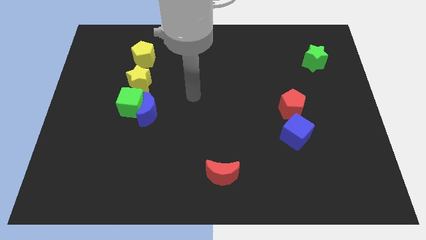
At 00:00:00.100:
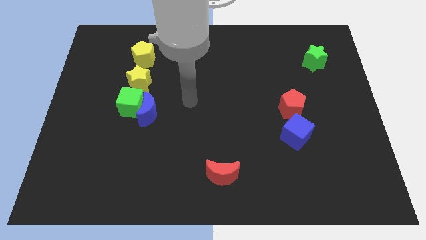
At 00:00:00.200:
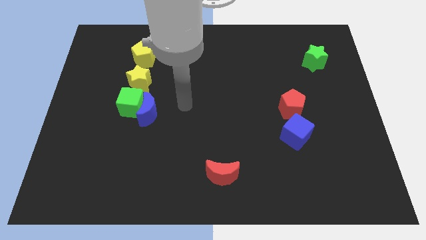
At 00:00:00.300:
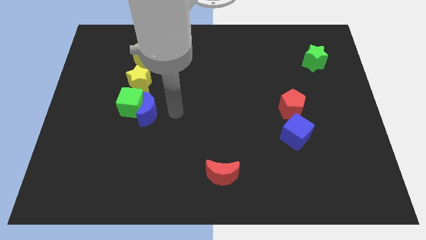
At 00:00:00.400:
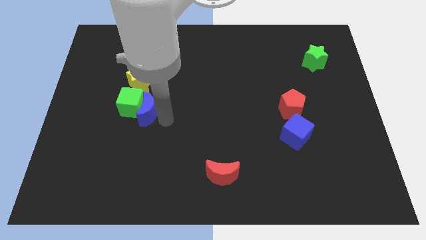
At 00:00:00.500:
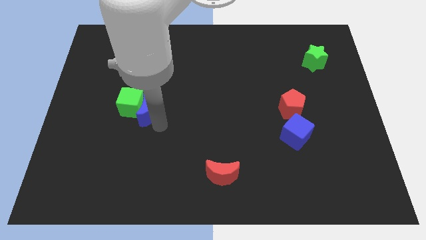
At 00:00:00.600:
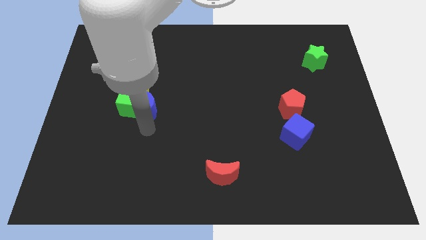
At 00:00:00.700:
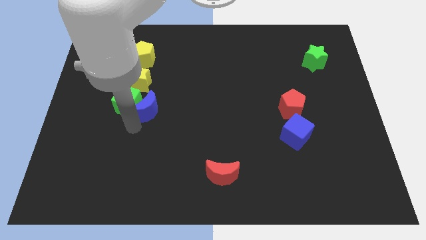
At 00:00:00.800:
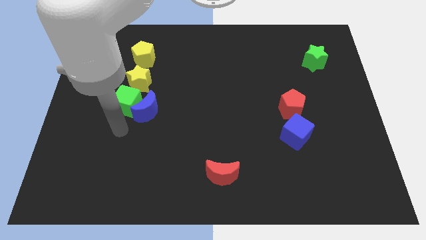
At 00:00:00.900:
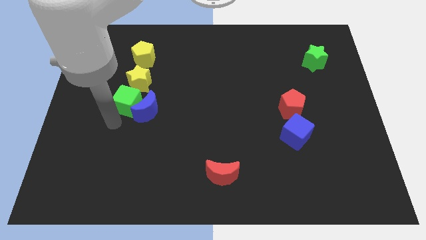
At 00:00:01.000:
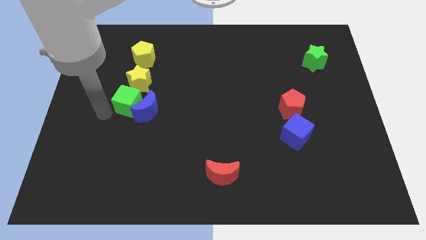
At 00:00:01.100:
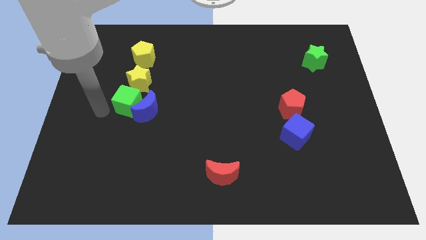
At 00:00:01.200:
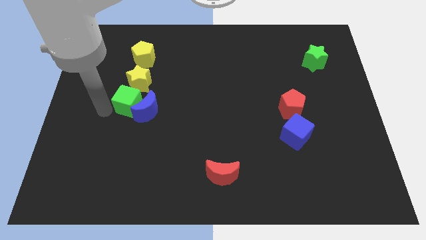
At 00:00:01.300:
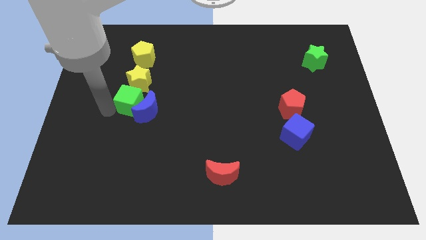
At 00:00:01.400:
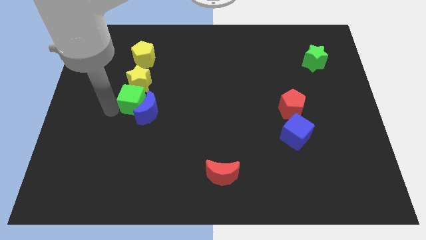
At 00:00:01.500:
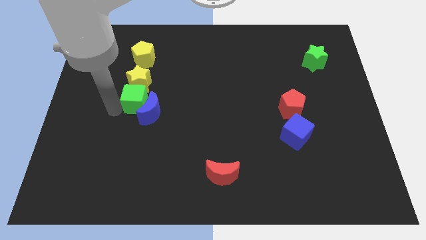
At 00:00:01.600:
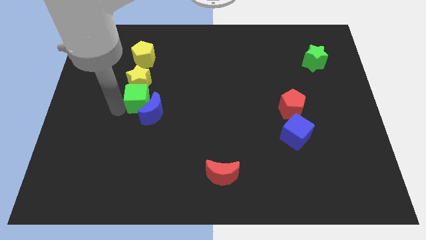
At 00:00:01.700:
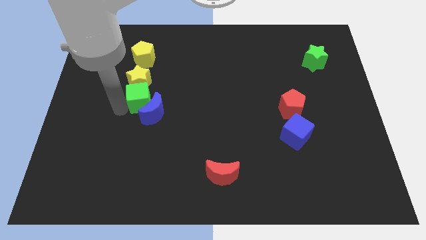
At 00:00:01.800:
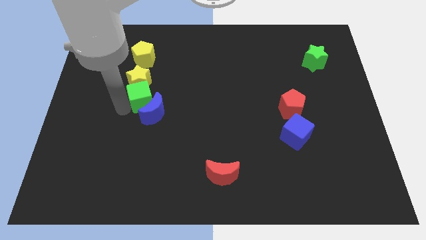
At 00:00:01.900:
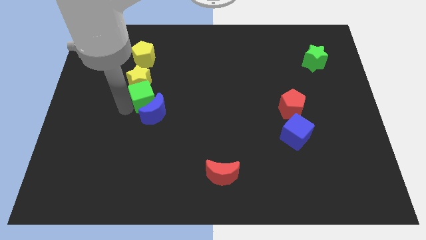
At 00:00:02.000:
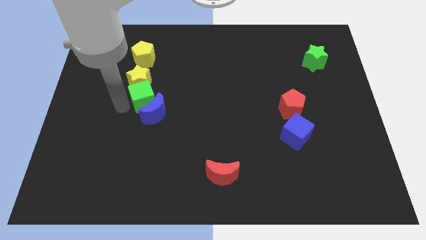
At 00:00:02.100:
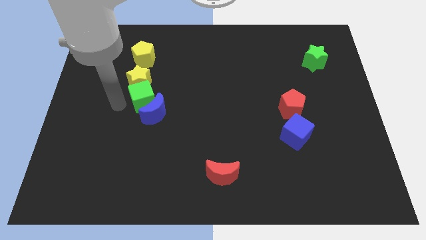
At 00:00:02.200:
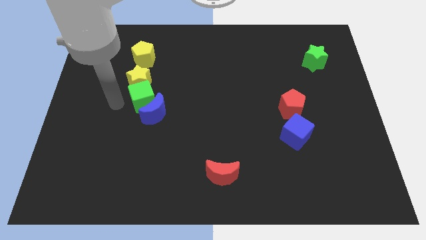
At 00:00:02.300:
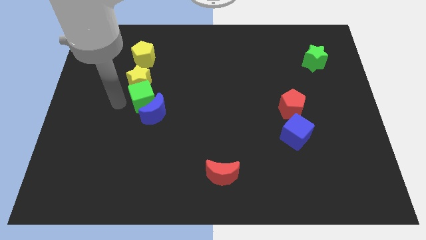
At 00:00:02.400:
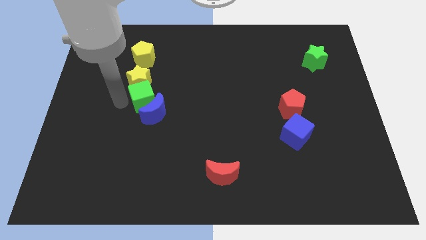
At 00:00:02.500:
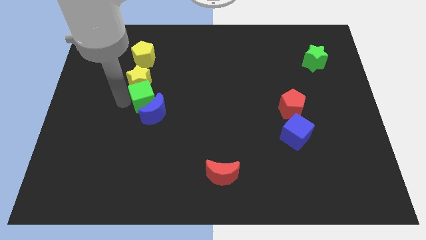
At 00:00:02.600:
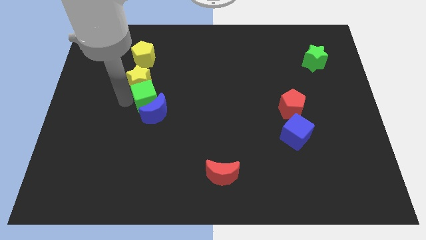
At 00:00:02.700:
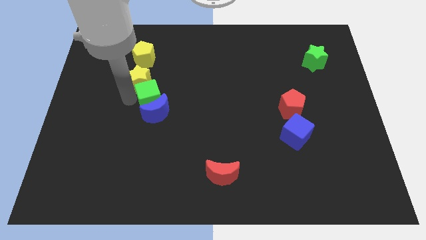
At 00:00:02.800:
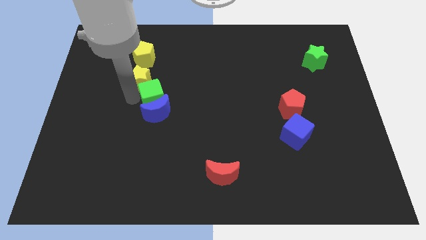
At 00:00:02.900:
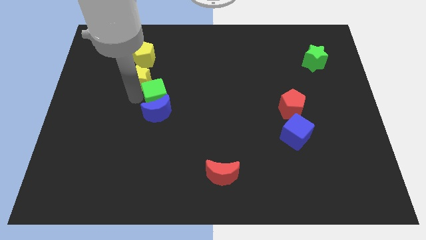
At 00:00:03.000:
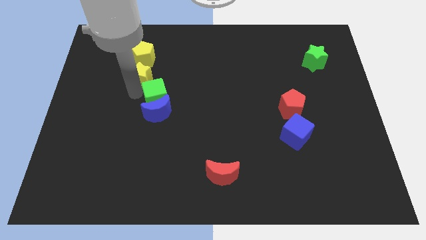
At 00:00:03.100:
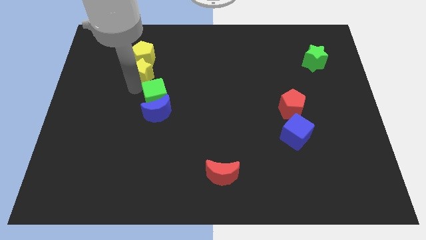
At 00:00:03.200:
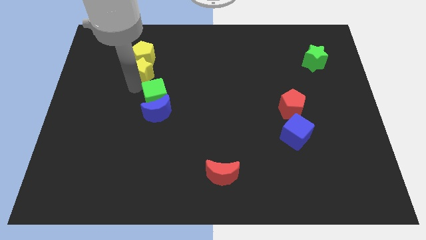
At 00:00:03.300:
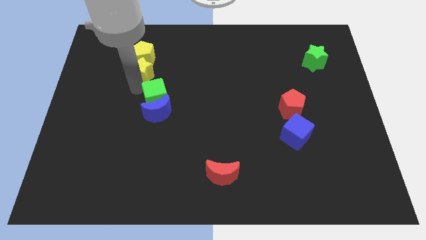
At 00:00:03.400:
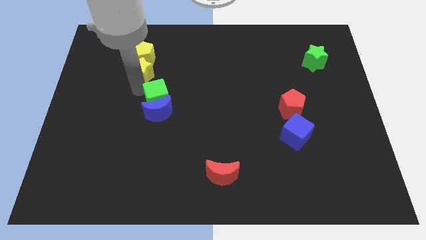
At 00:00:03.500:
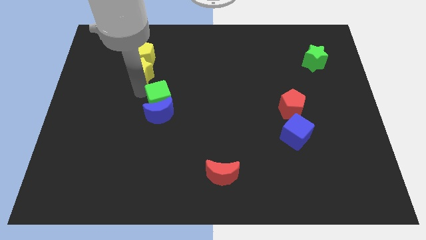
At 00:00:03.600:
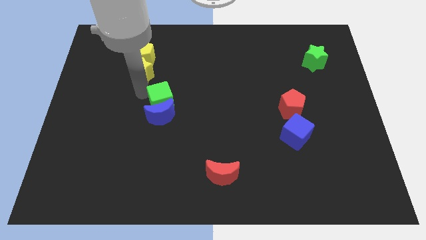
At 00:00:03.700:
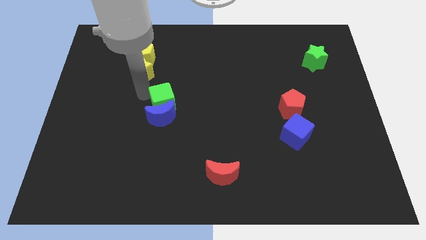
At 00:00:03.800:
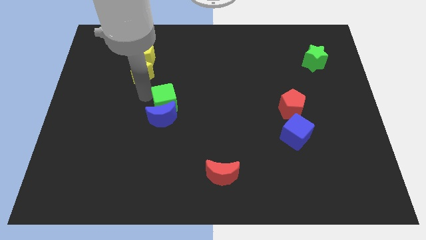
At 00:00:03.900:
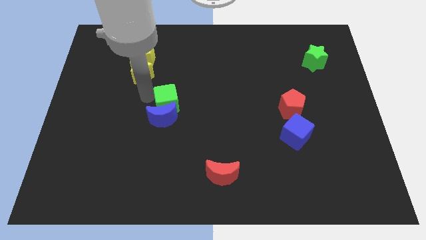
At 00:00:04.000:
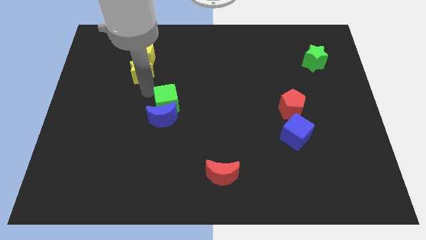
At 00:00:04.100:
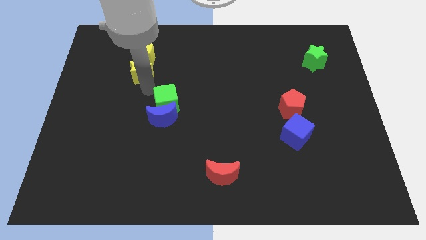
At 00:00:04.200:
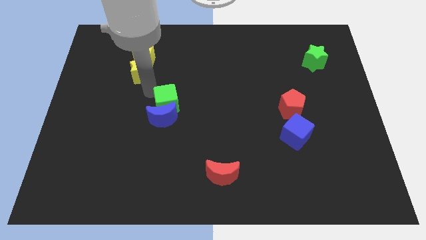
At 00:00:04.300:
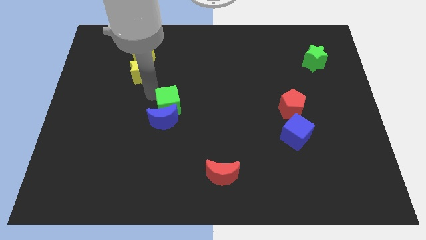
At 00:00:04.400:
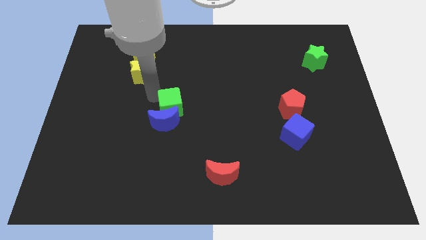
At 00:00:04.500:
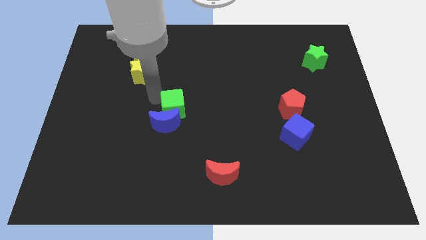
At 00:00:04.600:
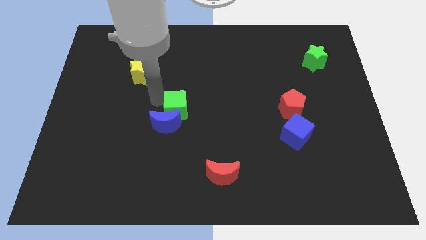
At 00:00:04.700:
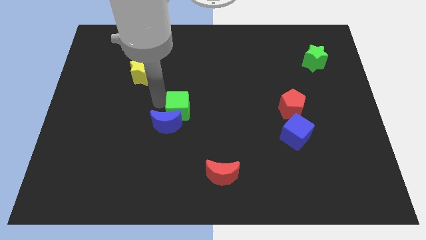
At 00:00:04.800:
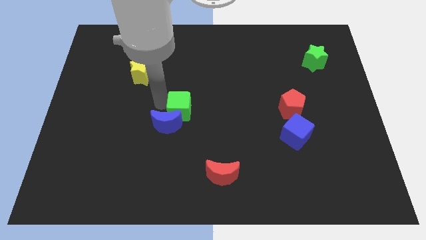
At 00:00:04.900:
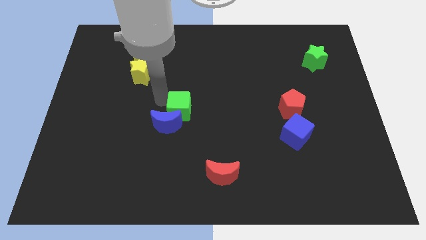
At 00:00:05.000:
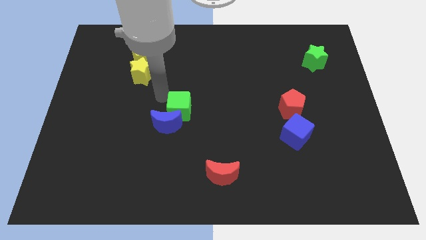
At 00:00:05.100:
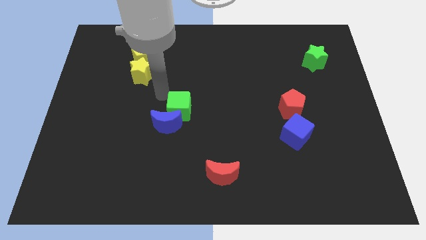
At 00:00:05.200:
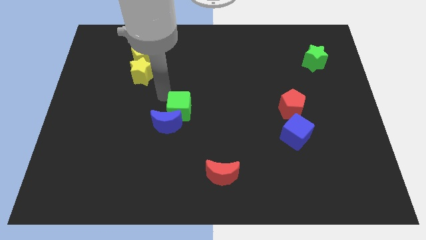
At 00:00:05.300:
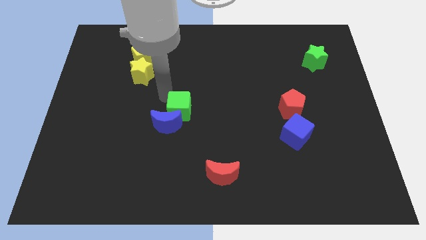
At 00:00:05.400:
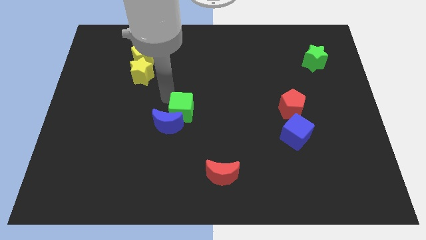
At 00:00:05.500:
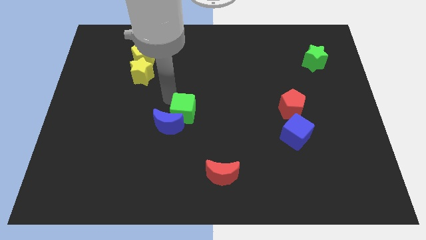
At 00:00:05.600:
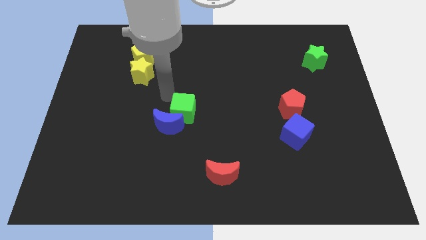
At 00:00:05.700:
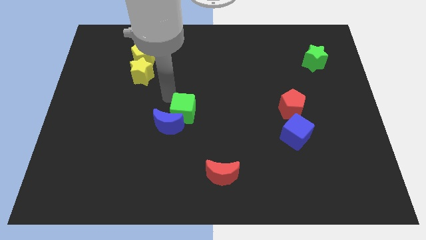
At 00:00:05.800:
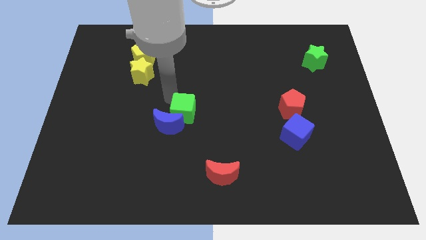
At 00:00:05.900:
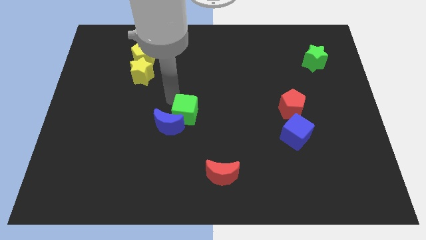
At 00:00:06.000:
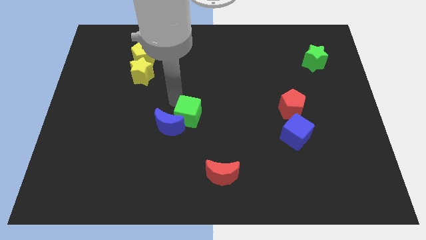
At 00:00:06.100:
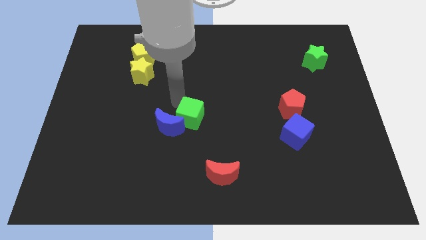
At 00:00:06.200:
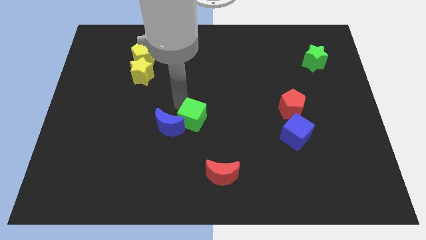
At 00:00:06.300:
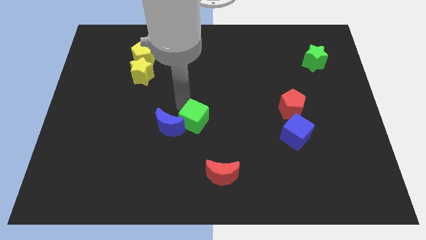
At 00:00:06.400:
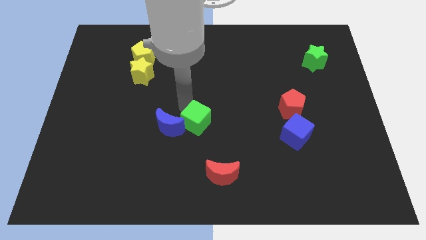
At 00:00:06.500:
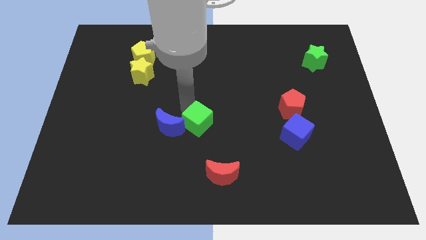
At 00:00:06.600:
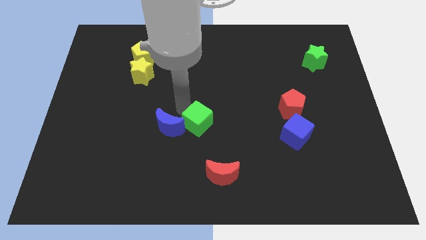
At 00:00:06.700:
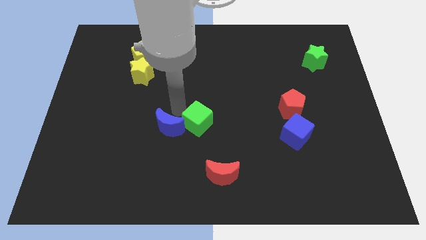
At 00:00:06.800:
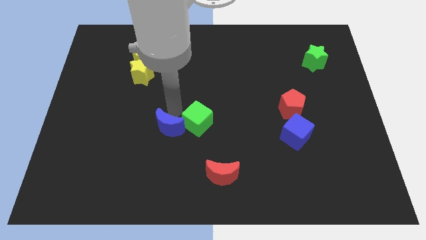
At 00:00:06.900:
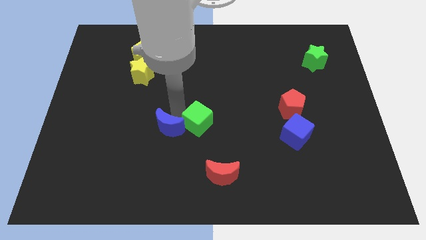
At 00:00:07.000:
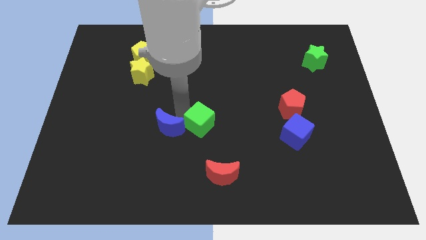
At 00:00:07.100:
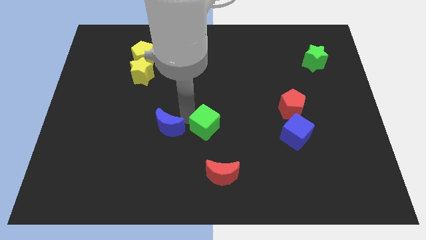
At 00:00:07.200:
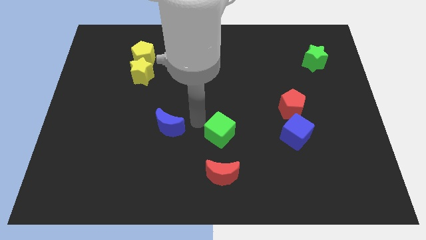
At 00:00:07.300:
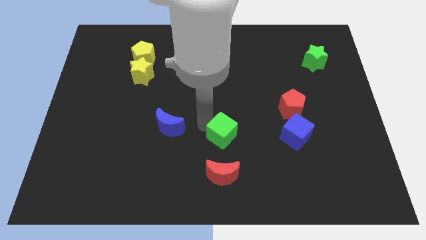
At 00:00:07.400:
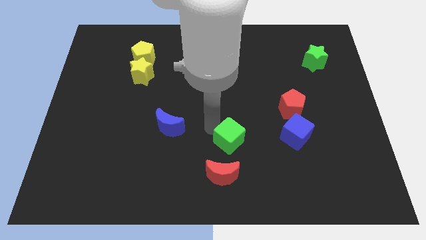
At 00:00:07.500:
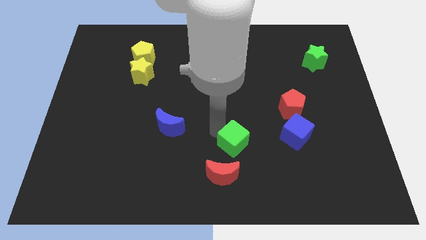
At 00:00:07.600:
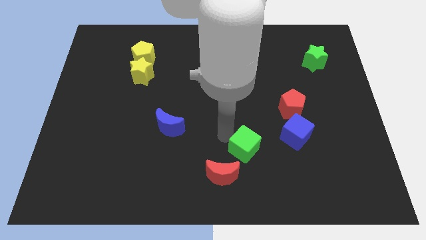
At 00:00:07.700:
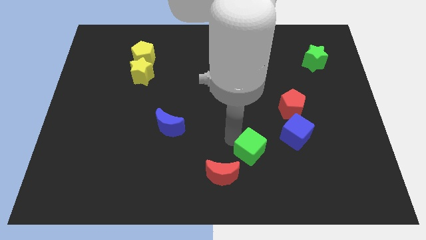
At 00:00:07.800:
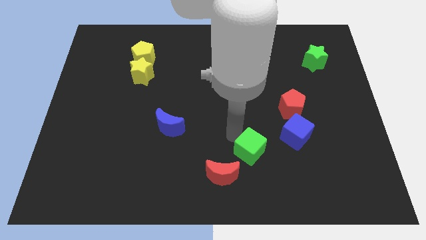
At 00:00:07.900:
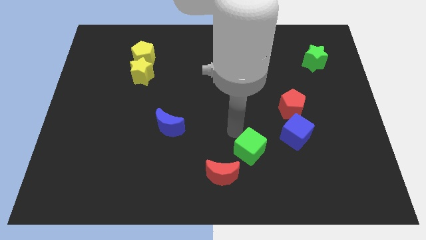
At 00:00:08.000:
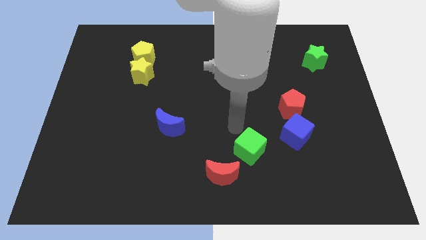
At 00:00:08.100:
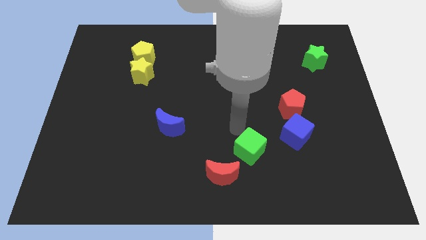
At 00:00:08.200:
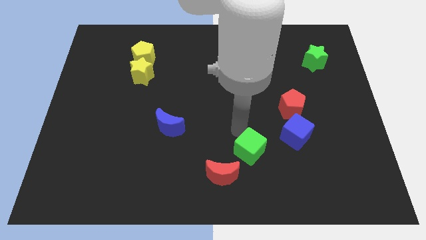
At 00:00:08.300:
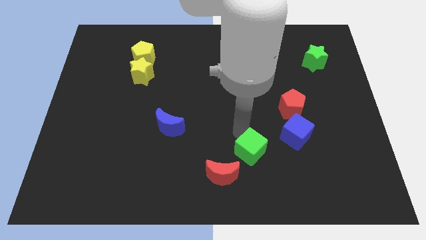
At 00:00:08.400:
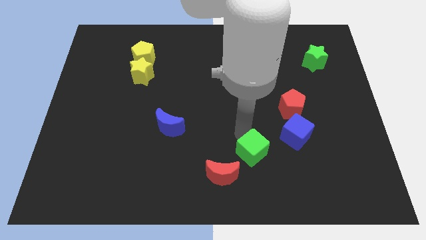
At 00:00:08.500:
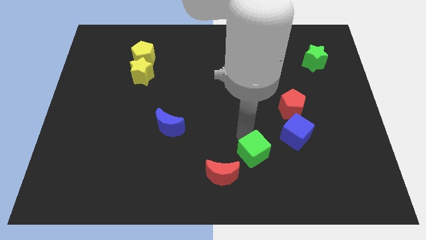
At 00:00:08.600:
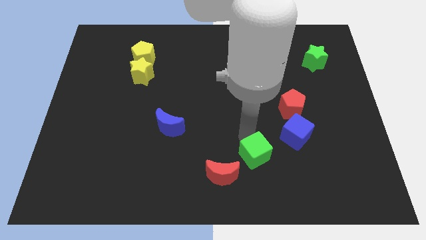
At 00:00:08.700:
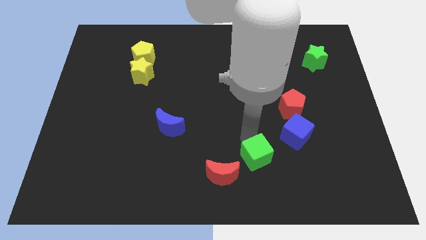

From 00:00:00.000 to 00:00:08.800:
move the green cube just right of the red moon
